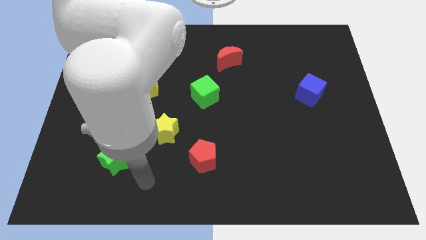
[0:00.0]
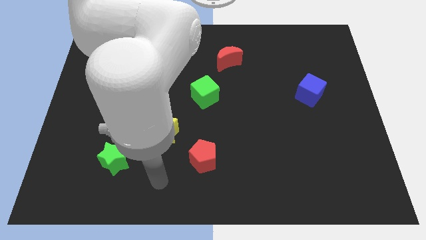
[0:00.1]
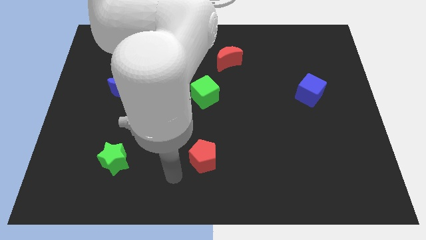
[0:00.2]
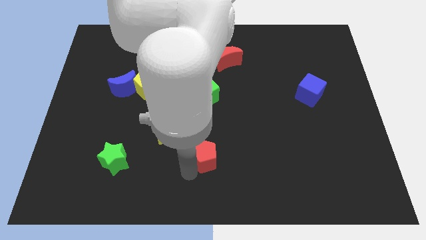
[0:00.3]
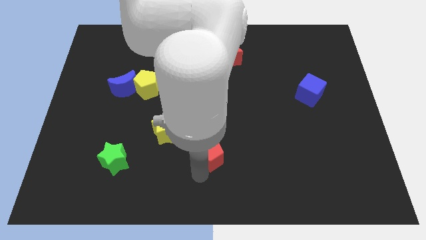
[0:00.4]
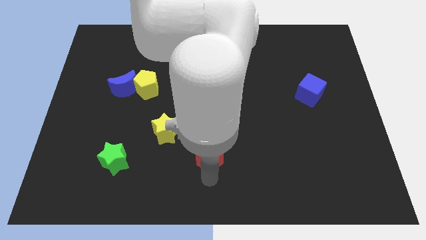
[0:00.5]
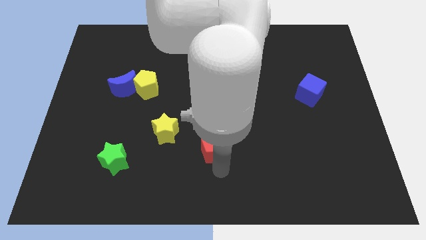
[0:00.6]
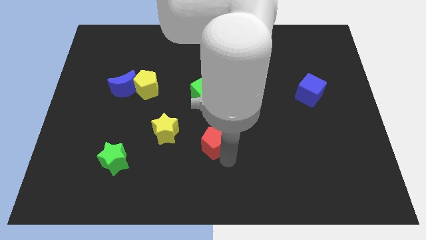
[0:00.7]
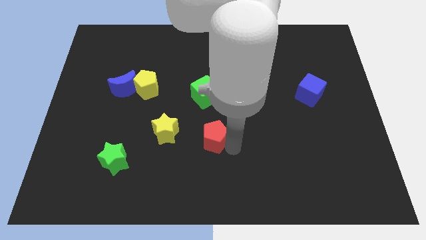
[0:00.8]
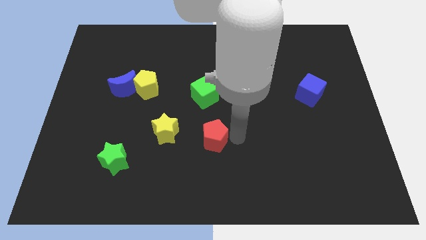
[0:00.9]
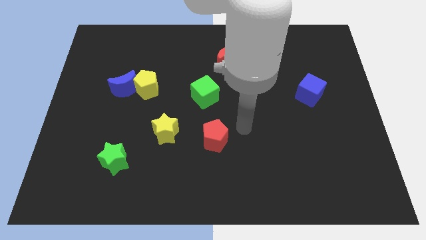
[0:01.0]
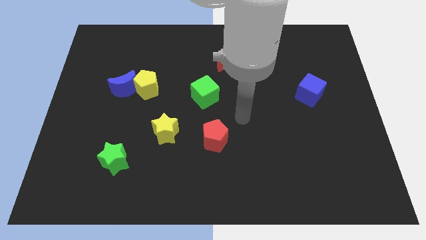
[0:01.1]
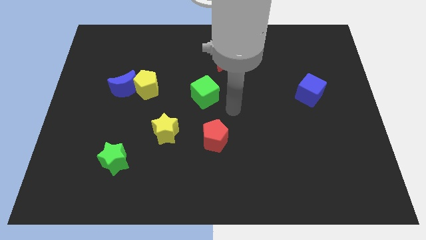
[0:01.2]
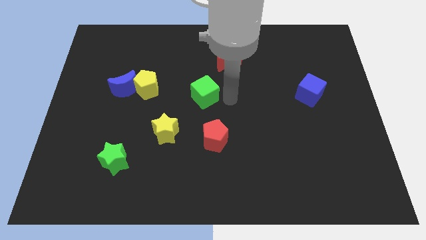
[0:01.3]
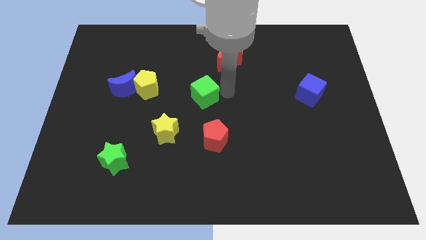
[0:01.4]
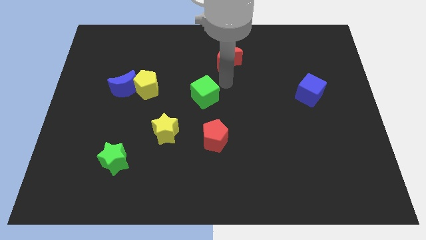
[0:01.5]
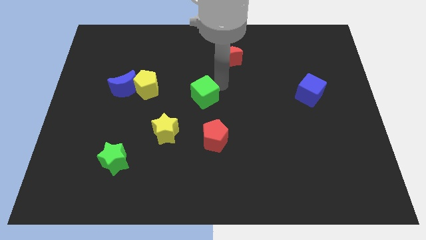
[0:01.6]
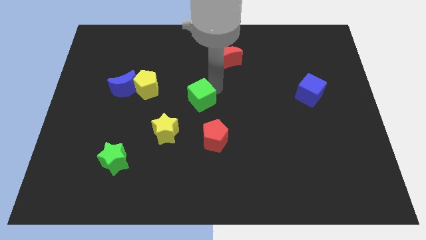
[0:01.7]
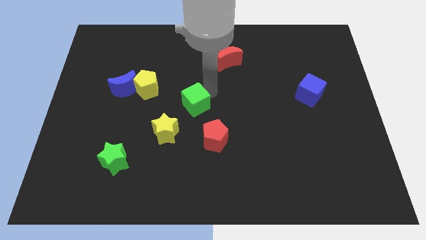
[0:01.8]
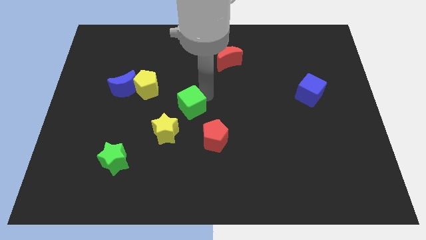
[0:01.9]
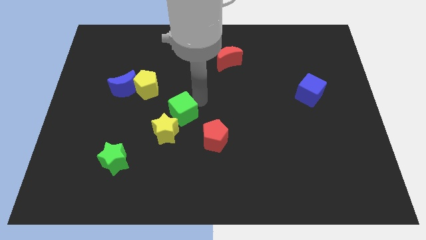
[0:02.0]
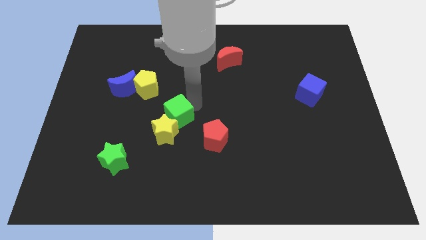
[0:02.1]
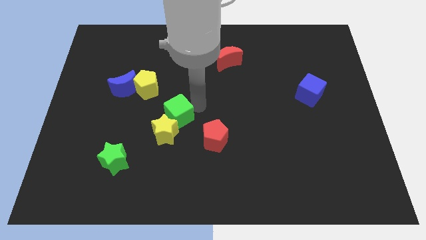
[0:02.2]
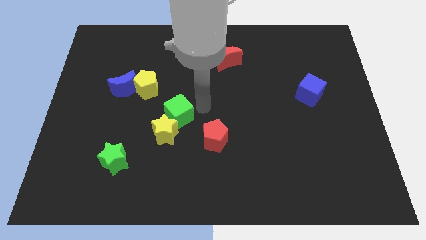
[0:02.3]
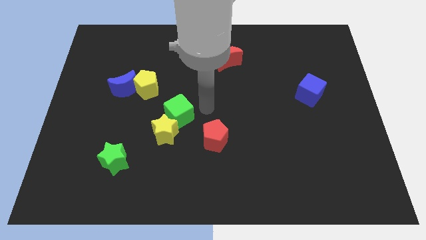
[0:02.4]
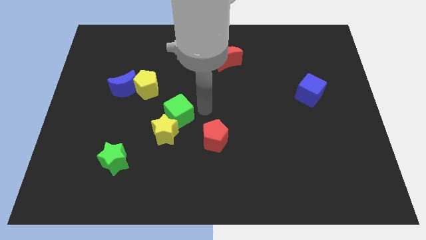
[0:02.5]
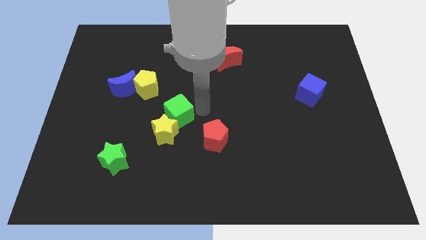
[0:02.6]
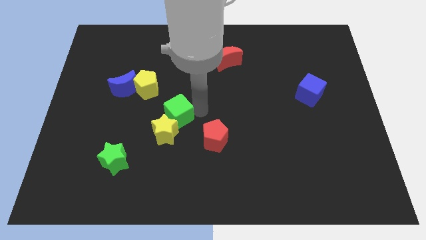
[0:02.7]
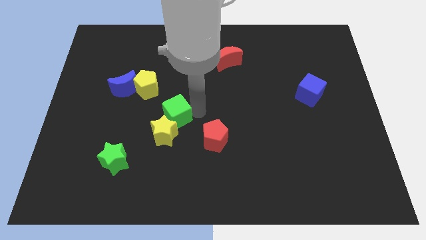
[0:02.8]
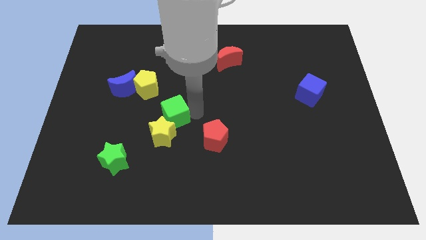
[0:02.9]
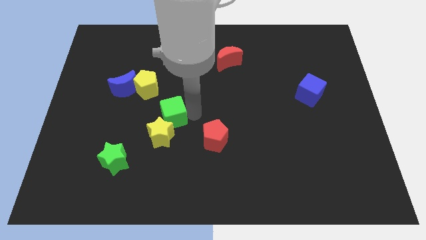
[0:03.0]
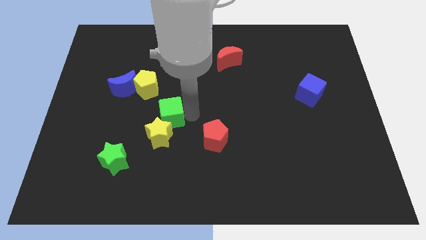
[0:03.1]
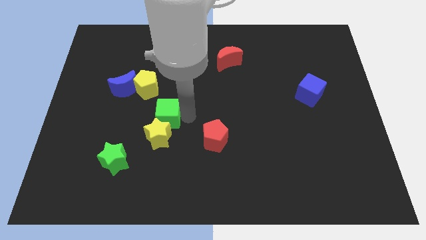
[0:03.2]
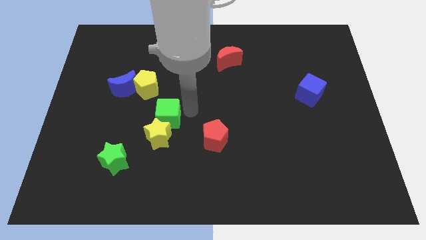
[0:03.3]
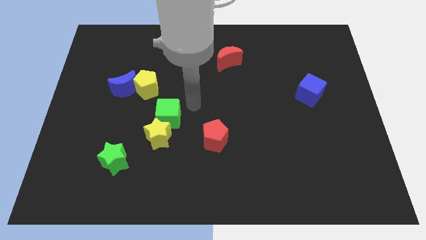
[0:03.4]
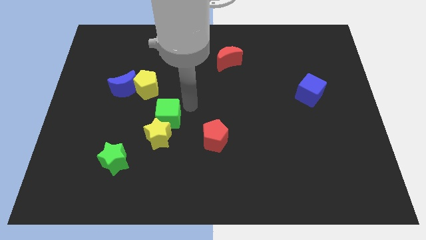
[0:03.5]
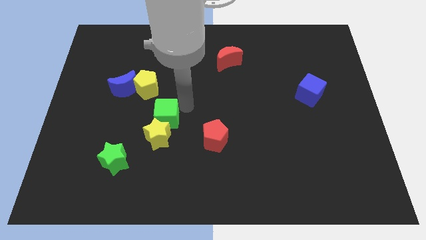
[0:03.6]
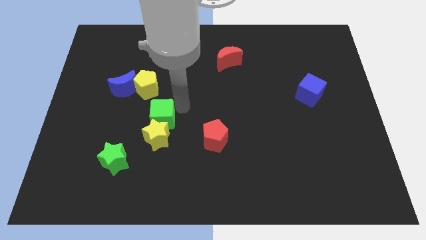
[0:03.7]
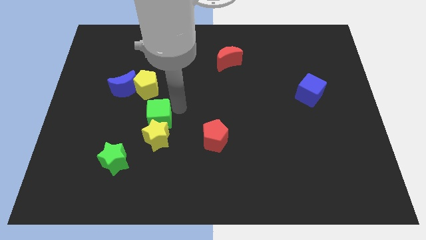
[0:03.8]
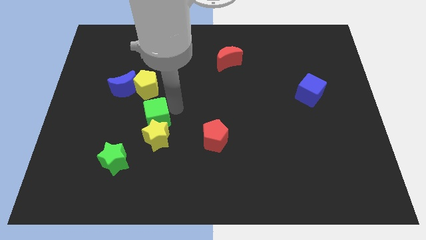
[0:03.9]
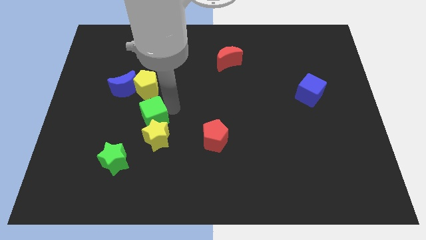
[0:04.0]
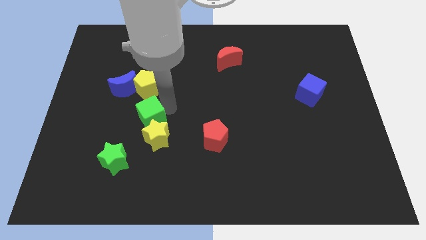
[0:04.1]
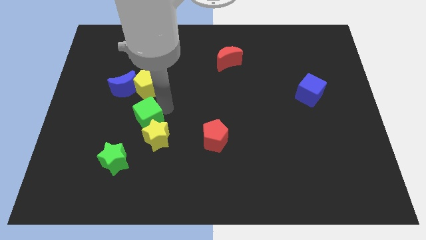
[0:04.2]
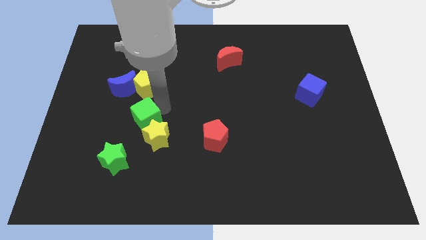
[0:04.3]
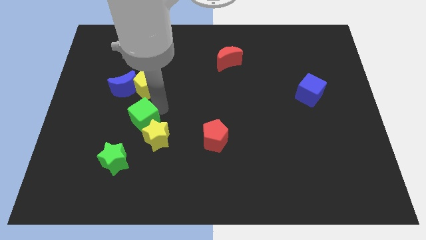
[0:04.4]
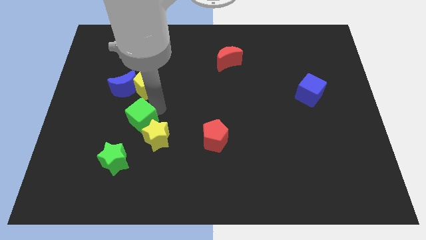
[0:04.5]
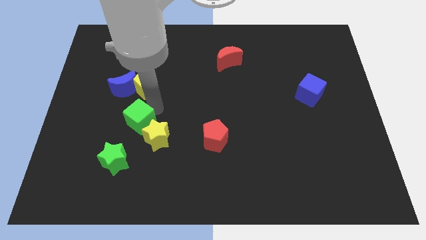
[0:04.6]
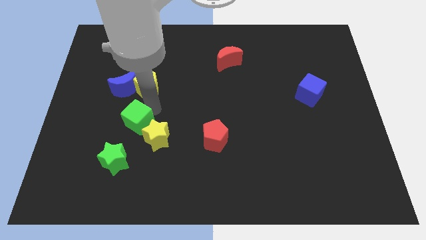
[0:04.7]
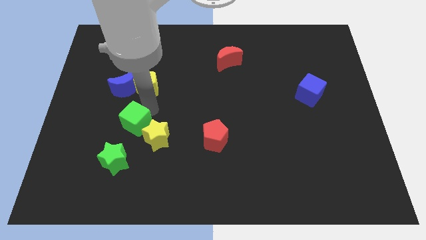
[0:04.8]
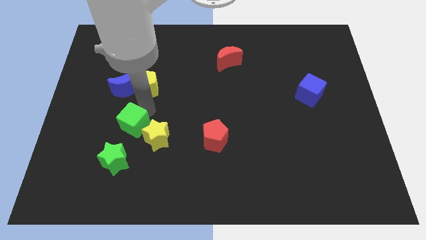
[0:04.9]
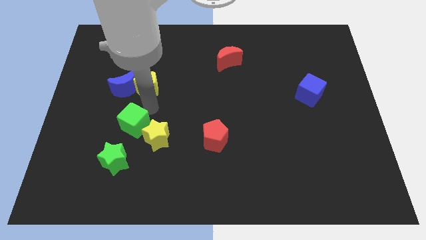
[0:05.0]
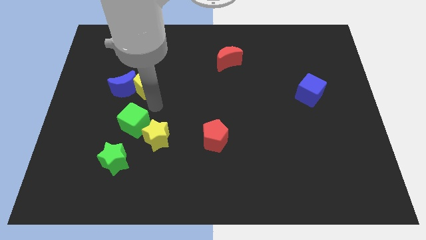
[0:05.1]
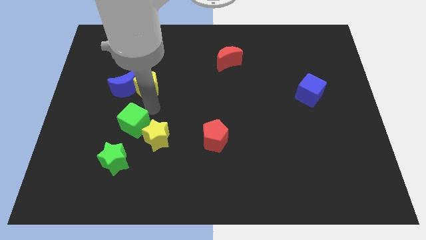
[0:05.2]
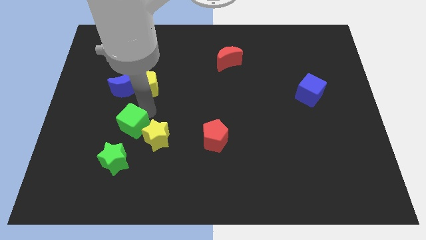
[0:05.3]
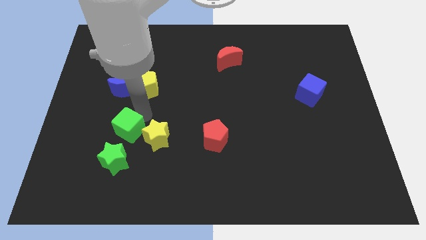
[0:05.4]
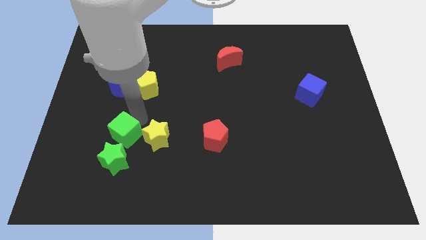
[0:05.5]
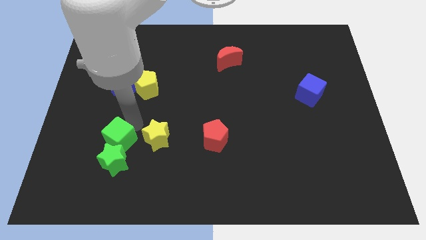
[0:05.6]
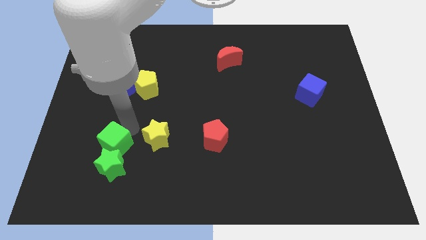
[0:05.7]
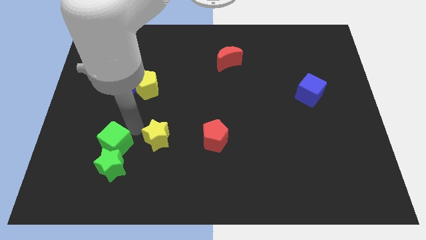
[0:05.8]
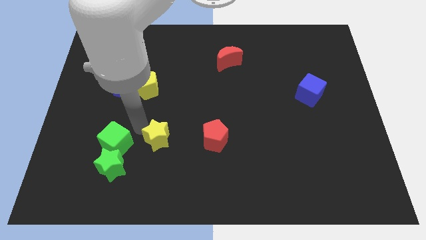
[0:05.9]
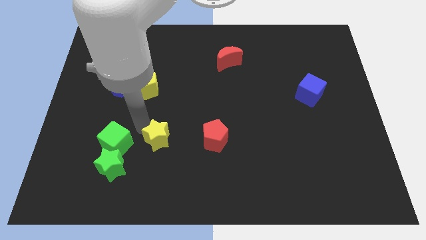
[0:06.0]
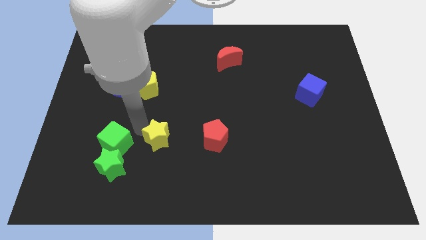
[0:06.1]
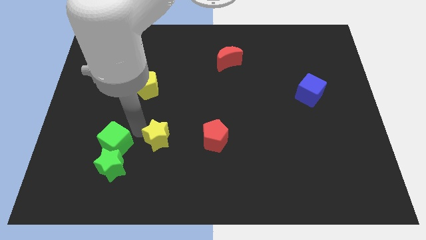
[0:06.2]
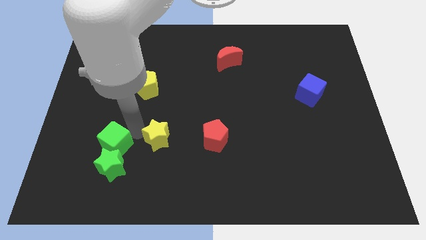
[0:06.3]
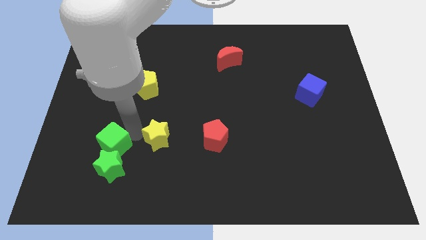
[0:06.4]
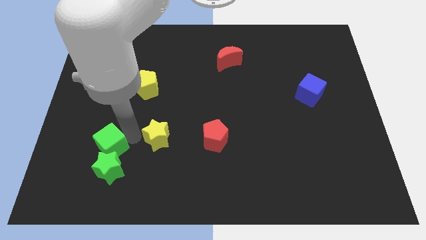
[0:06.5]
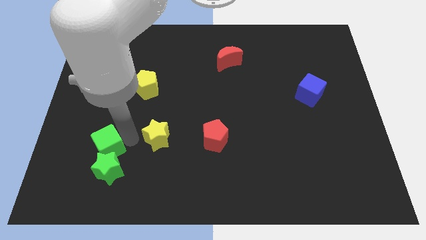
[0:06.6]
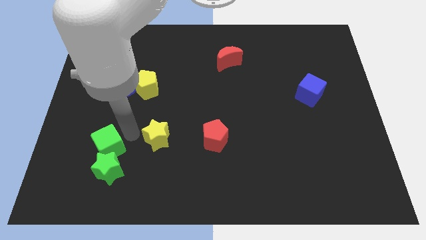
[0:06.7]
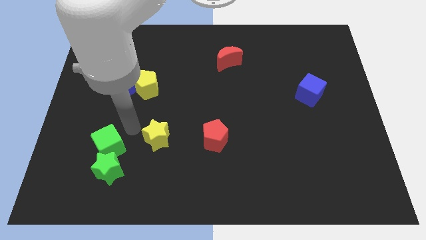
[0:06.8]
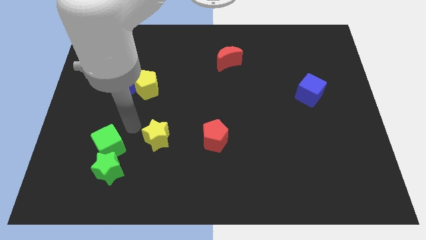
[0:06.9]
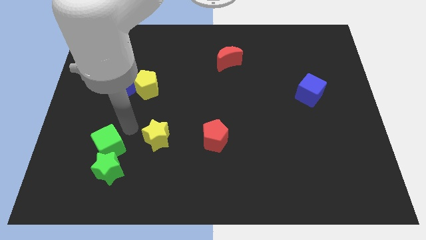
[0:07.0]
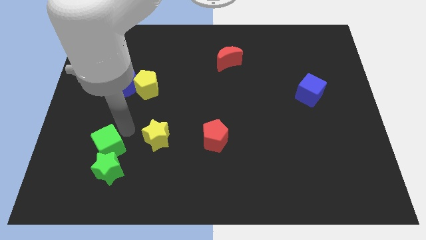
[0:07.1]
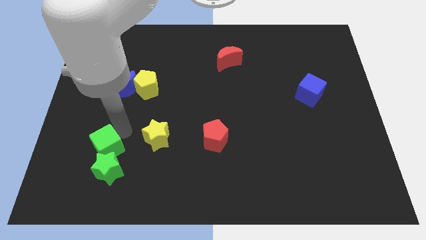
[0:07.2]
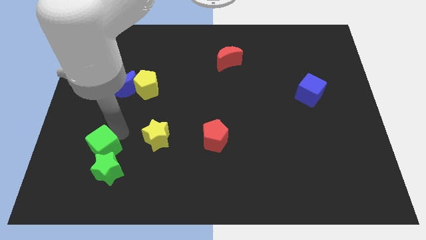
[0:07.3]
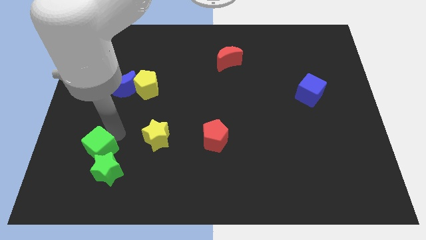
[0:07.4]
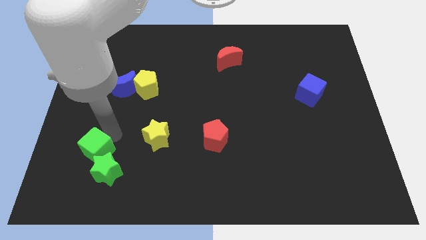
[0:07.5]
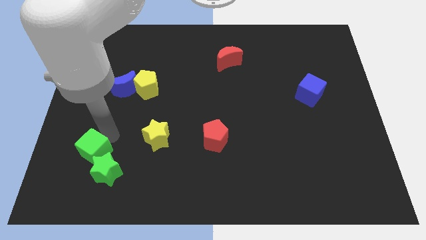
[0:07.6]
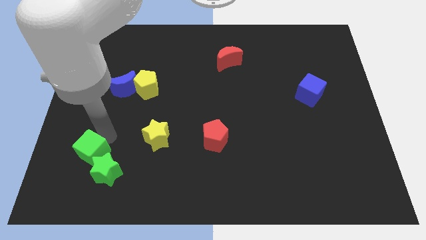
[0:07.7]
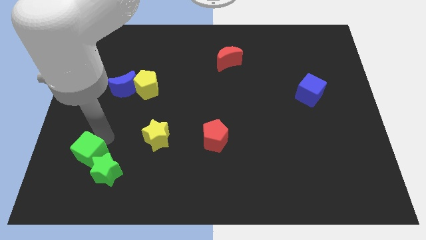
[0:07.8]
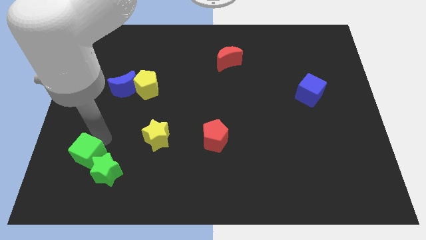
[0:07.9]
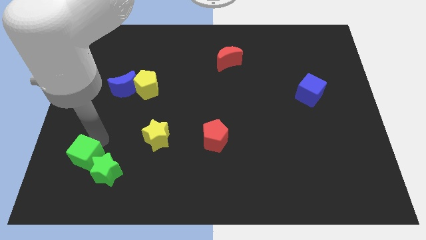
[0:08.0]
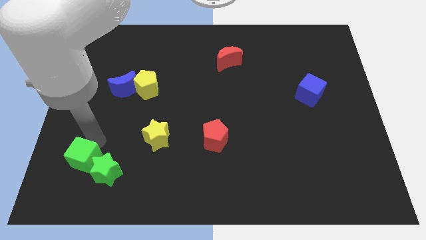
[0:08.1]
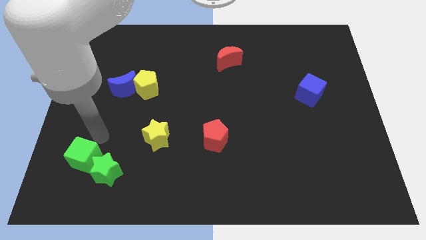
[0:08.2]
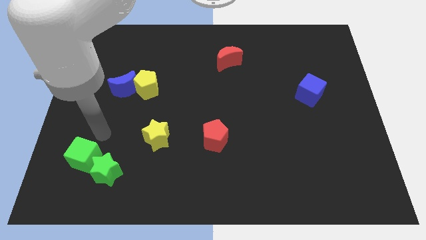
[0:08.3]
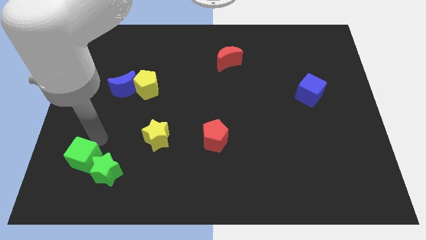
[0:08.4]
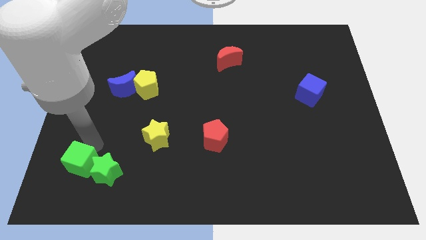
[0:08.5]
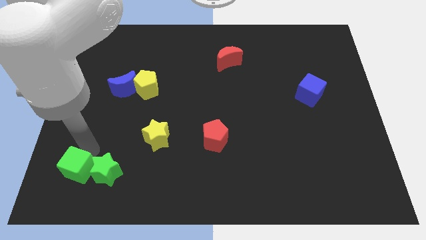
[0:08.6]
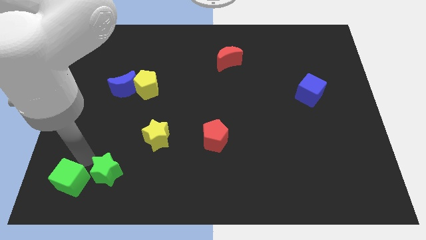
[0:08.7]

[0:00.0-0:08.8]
put the green cube to the bottom left corner
